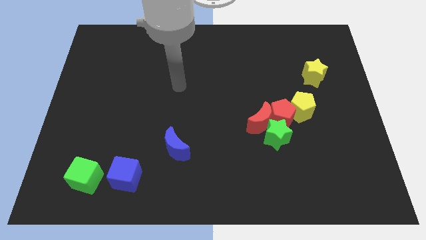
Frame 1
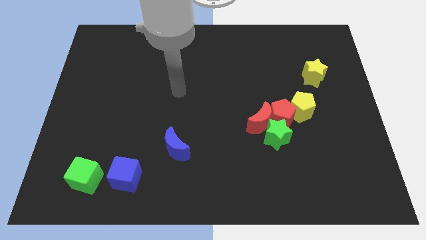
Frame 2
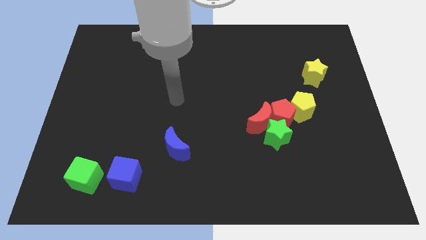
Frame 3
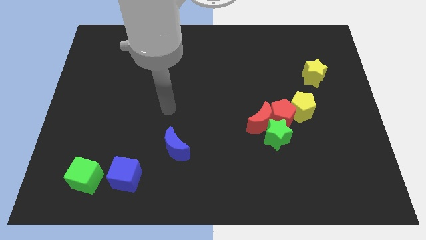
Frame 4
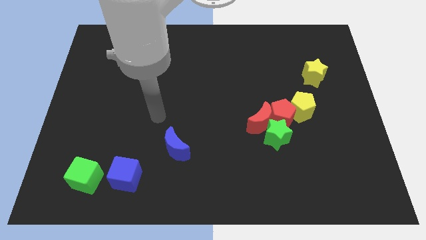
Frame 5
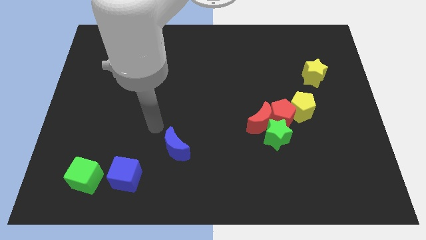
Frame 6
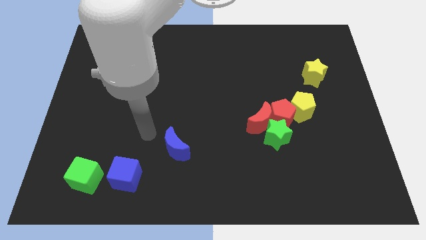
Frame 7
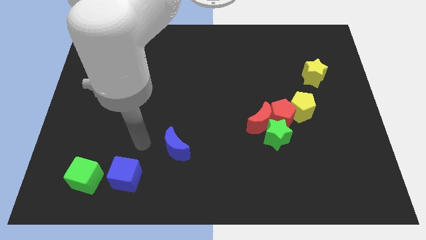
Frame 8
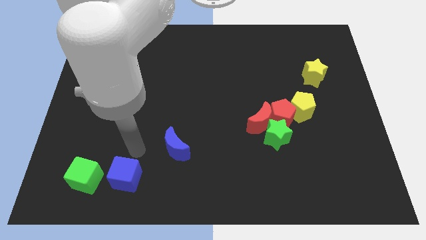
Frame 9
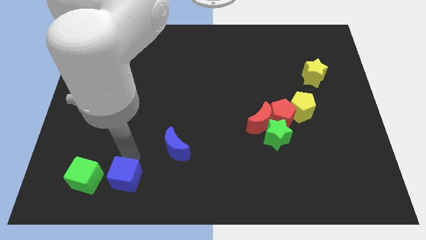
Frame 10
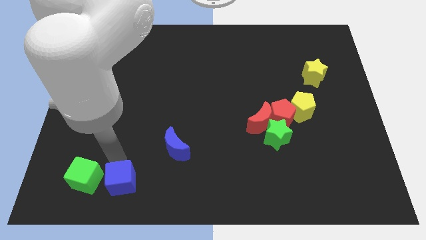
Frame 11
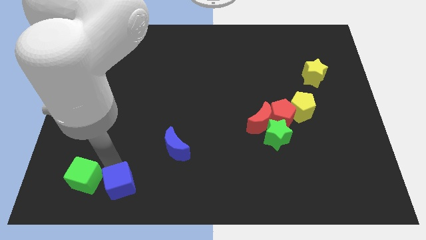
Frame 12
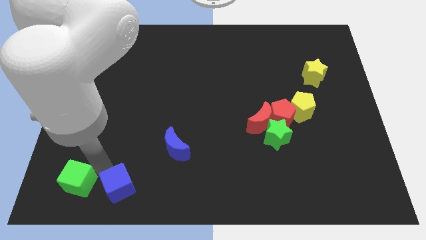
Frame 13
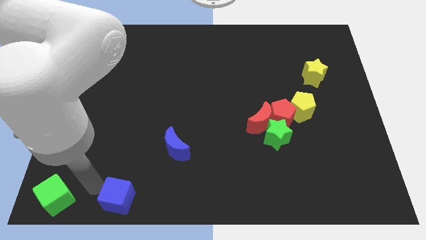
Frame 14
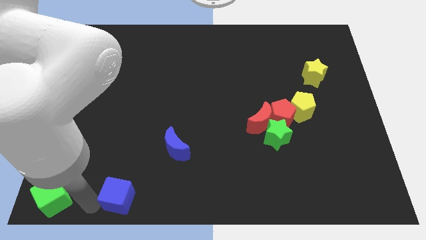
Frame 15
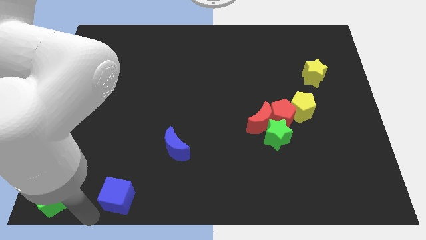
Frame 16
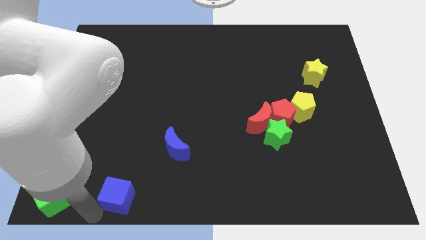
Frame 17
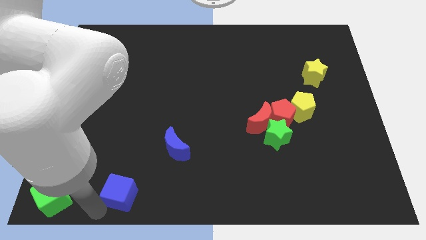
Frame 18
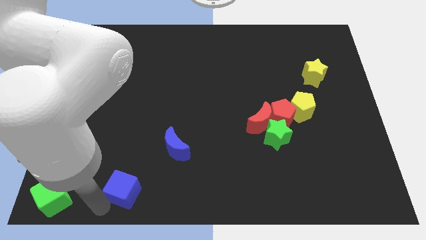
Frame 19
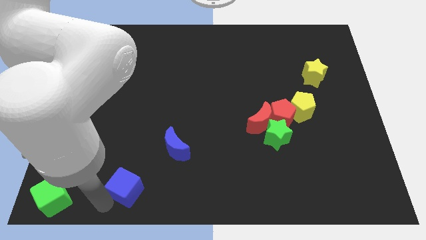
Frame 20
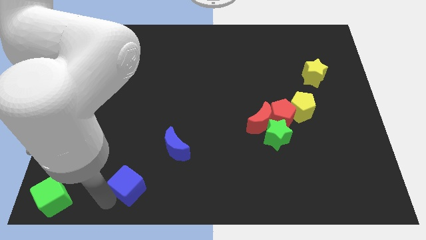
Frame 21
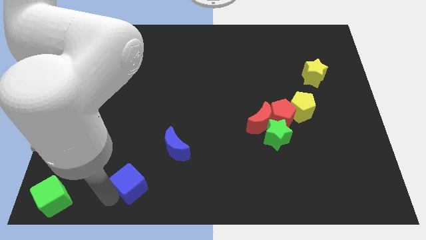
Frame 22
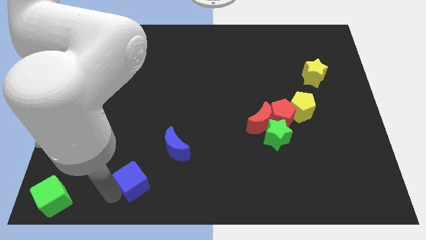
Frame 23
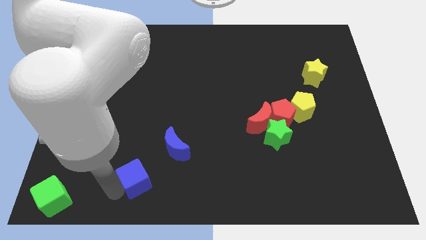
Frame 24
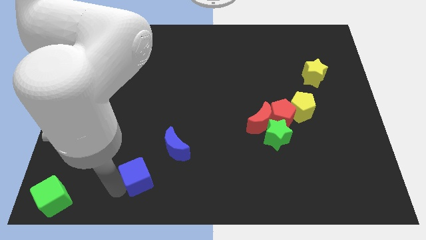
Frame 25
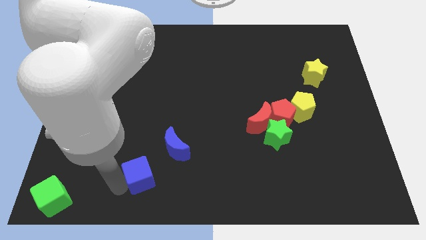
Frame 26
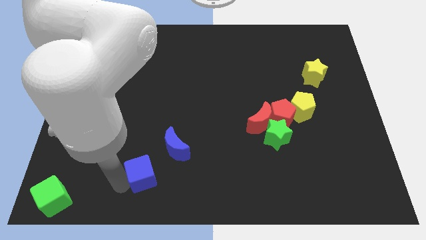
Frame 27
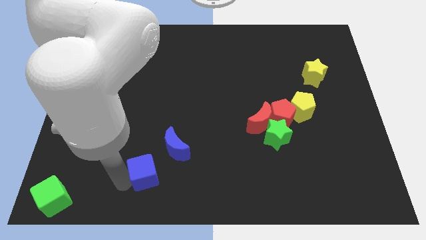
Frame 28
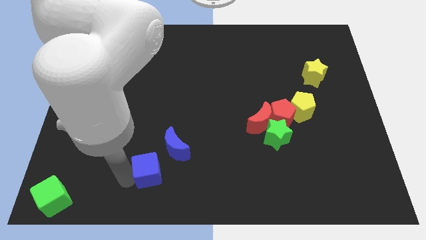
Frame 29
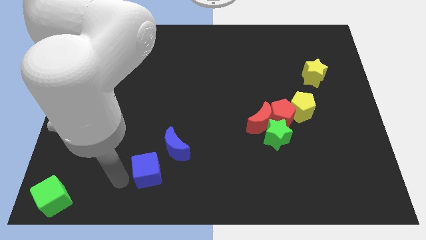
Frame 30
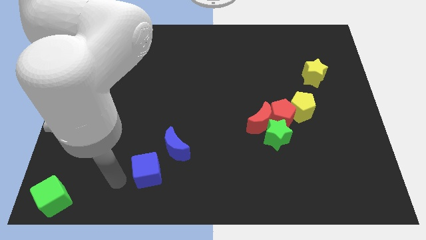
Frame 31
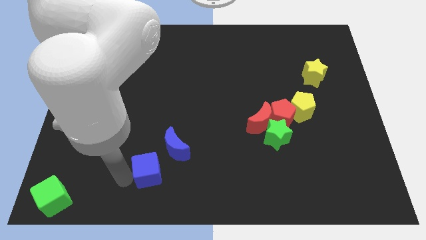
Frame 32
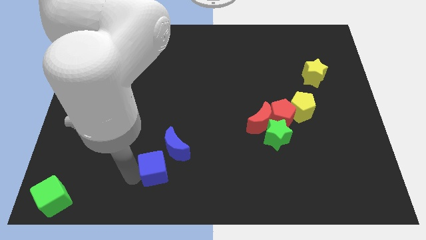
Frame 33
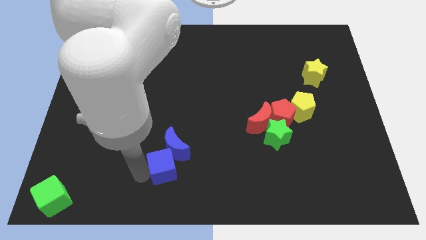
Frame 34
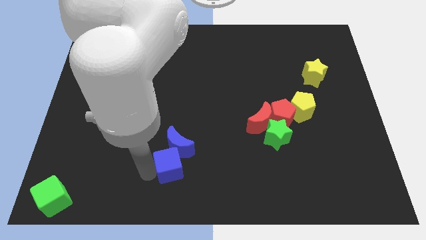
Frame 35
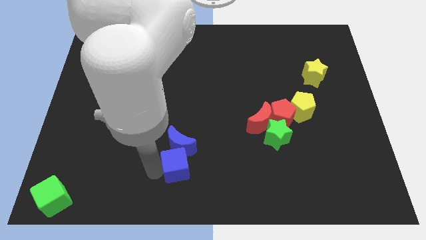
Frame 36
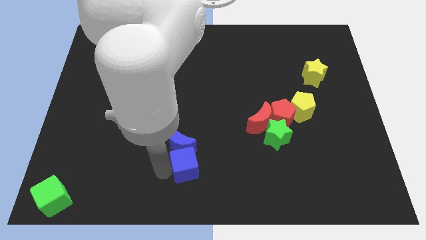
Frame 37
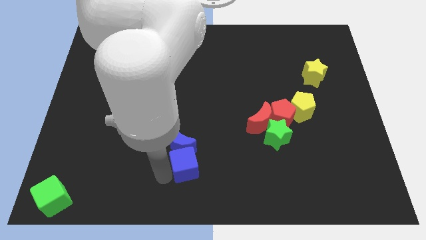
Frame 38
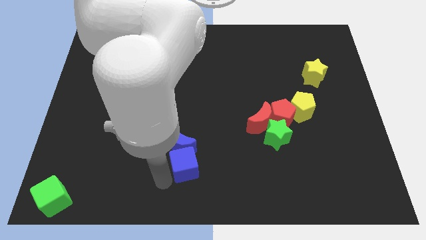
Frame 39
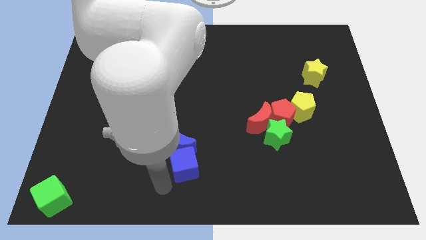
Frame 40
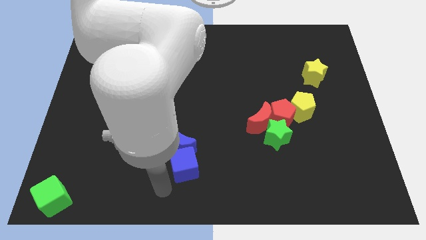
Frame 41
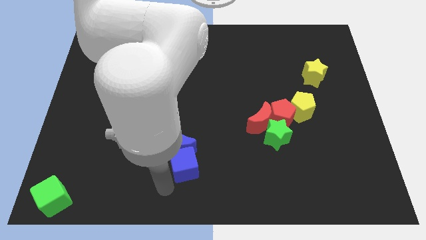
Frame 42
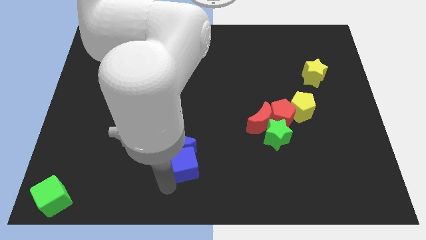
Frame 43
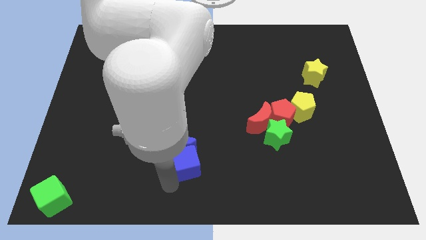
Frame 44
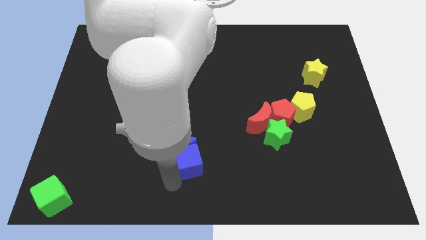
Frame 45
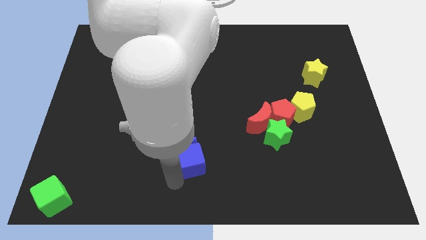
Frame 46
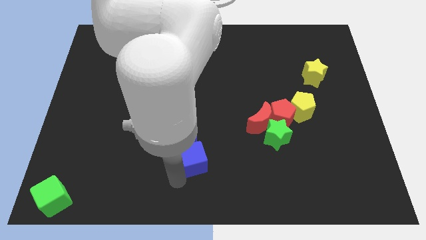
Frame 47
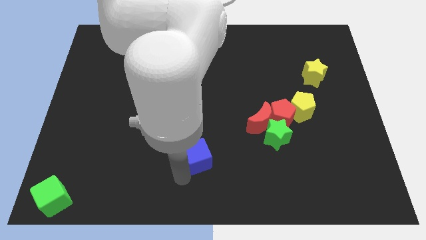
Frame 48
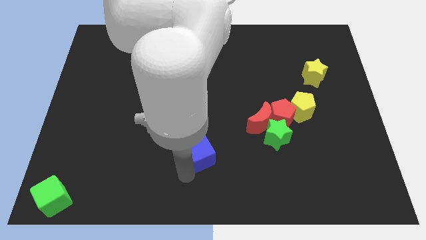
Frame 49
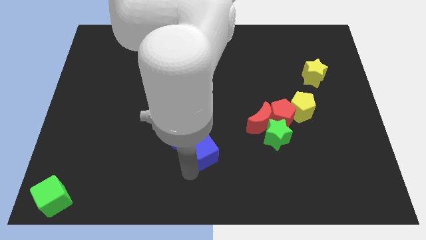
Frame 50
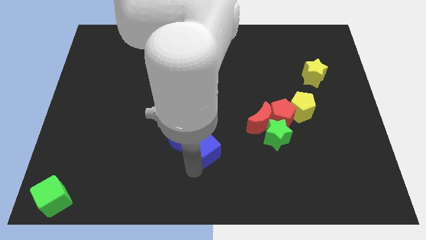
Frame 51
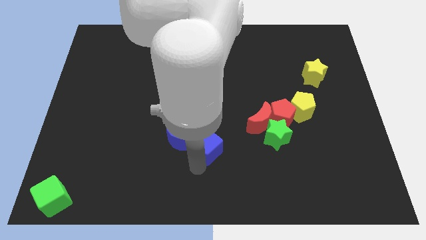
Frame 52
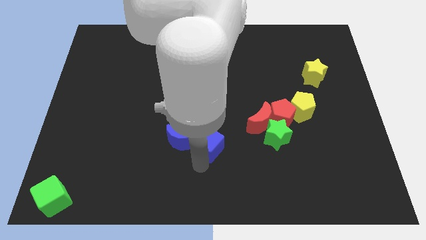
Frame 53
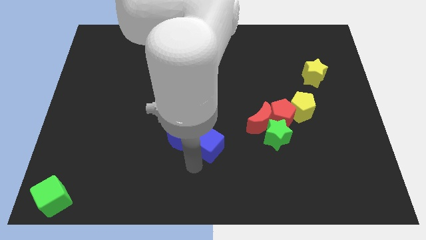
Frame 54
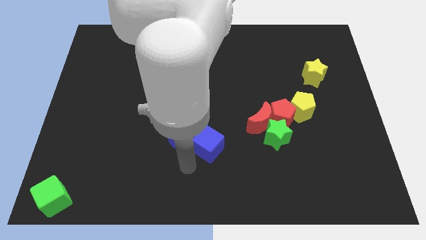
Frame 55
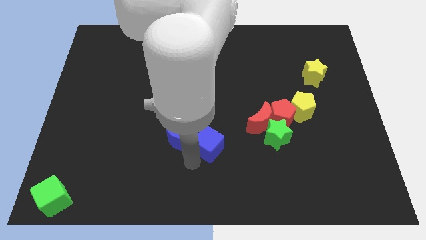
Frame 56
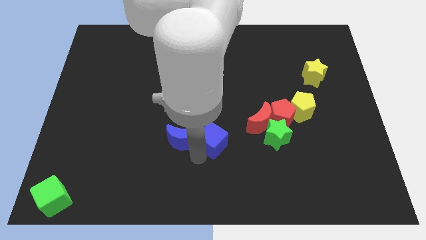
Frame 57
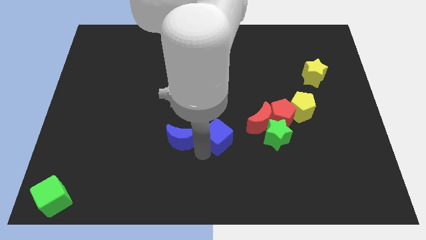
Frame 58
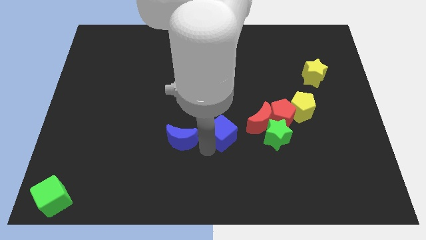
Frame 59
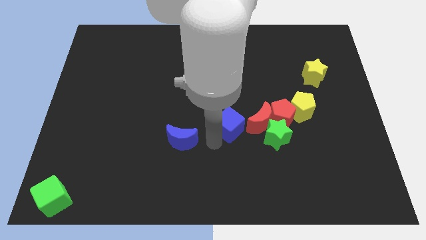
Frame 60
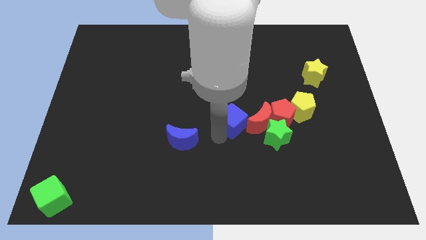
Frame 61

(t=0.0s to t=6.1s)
move the blue cube diagonally up and to the left of the green star

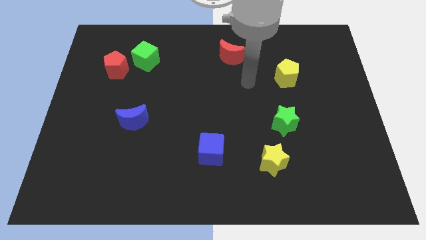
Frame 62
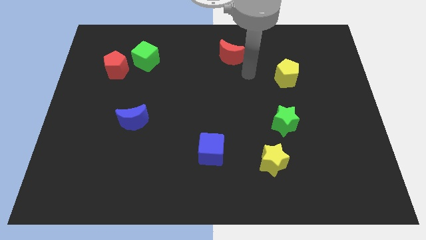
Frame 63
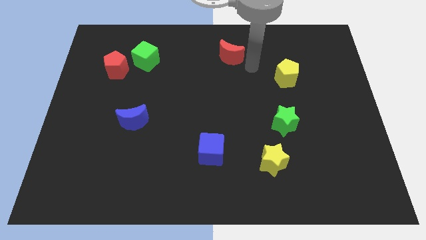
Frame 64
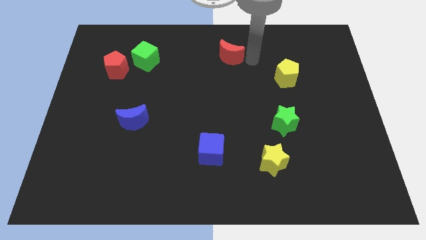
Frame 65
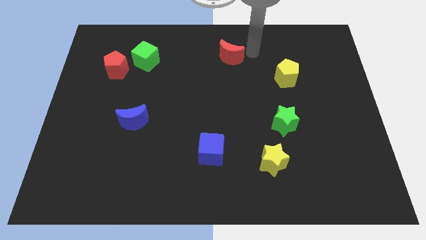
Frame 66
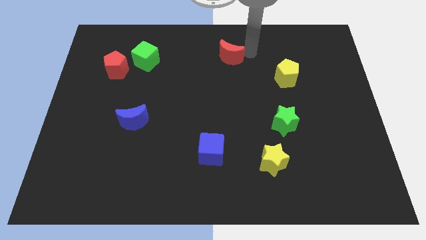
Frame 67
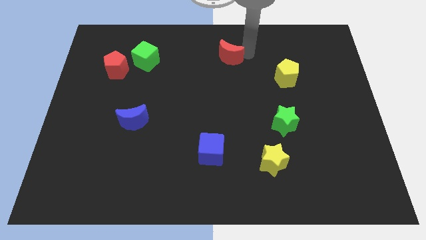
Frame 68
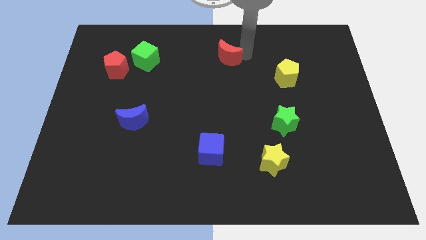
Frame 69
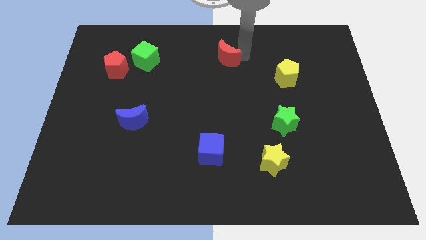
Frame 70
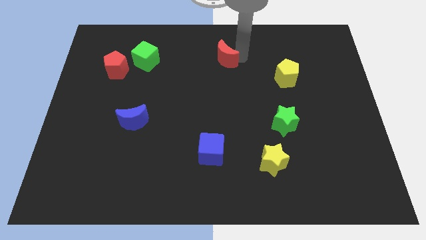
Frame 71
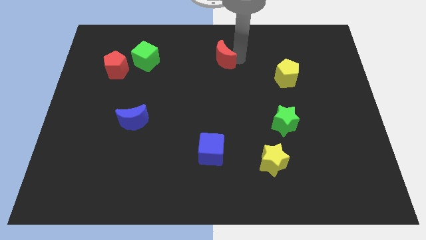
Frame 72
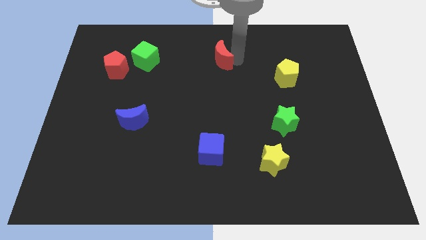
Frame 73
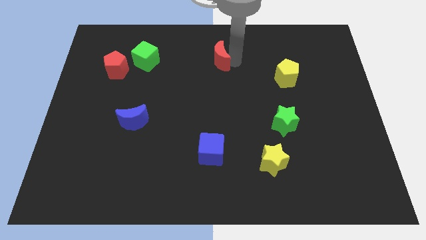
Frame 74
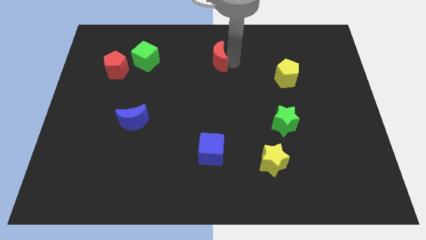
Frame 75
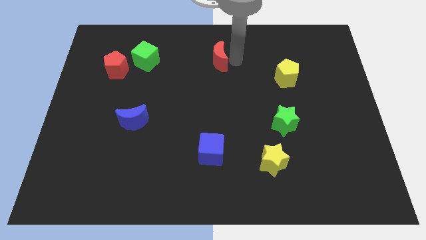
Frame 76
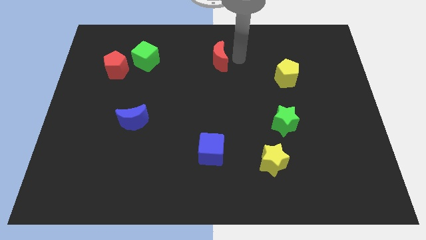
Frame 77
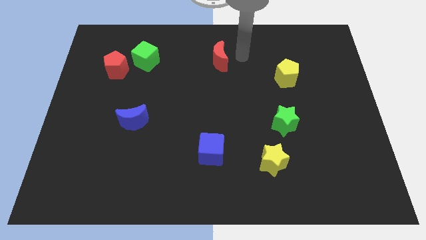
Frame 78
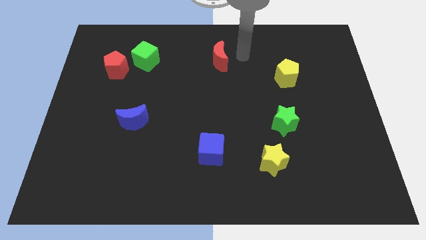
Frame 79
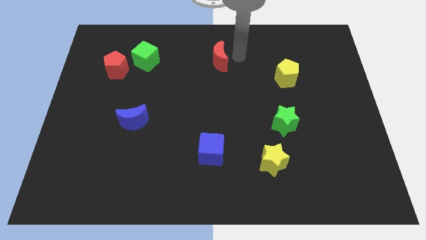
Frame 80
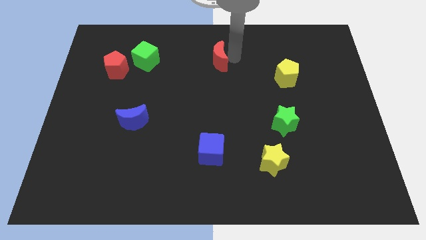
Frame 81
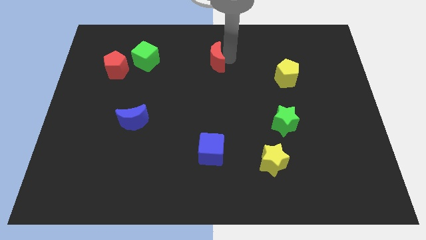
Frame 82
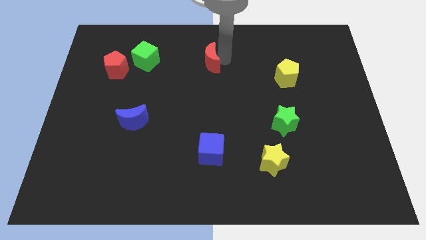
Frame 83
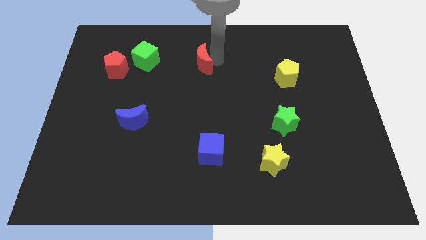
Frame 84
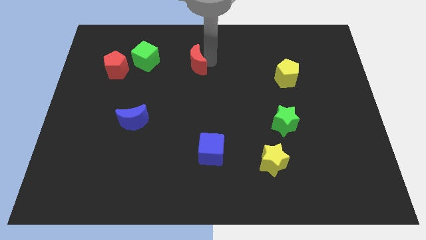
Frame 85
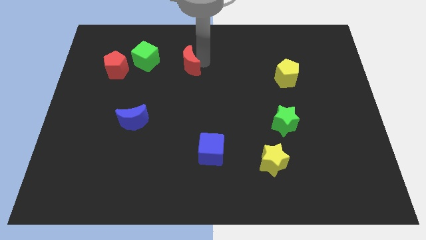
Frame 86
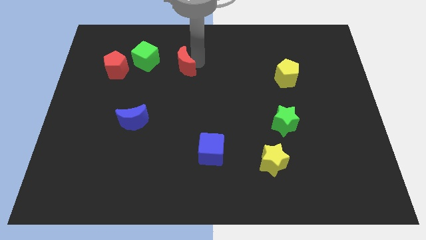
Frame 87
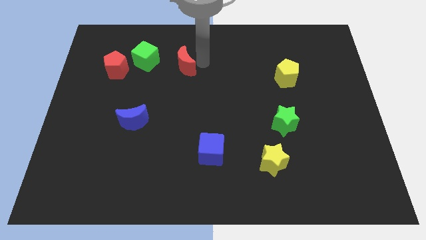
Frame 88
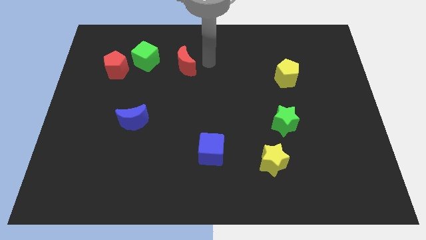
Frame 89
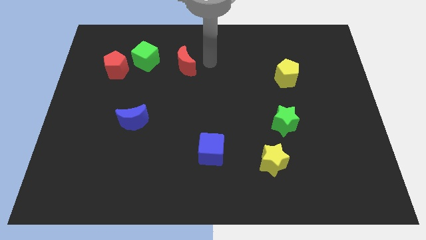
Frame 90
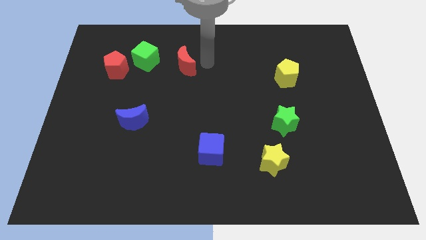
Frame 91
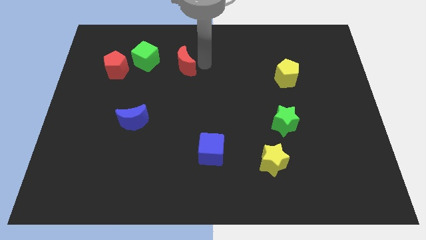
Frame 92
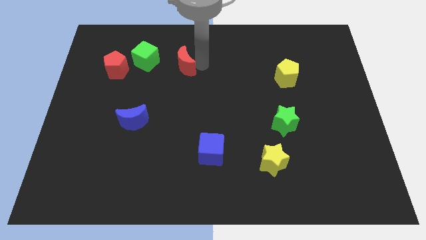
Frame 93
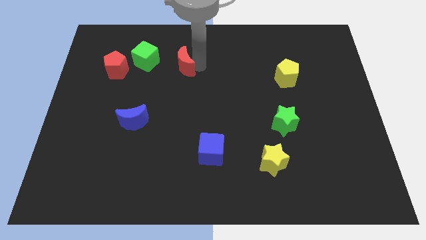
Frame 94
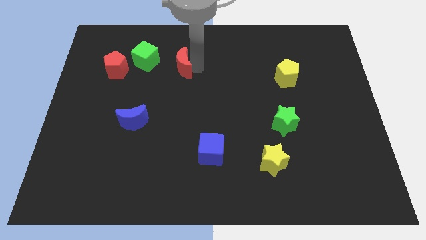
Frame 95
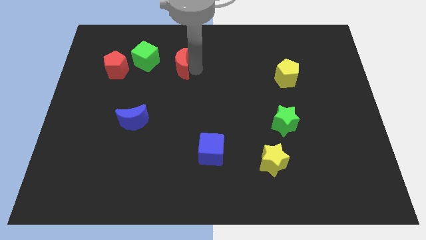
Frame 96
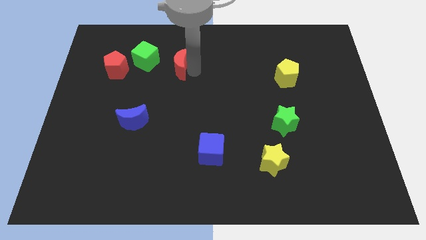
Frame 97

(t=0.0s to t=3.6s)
move the red moon to the right side of the red pentagon
